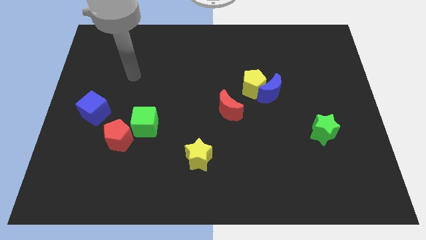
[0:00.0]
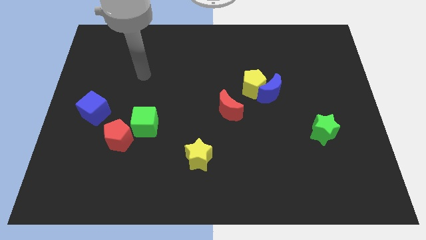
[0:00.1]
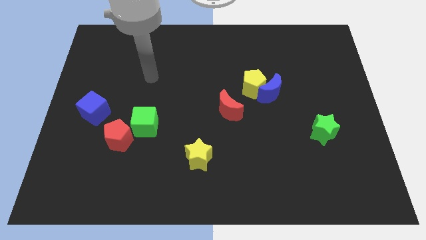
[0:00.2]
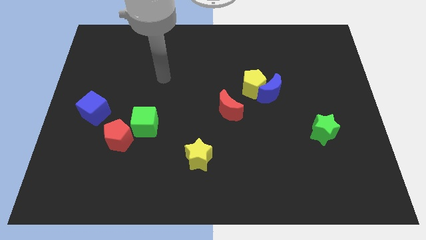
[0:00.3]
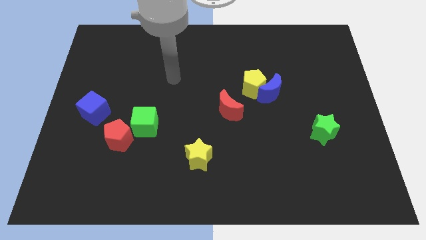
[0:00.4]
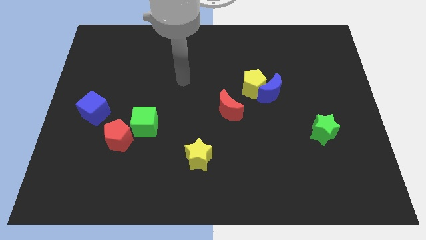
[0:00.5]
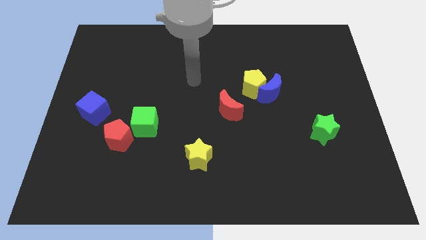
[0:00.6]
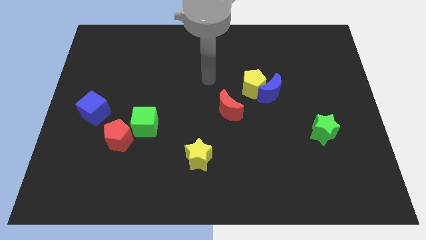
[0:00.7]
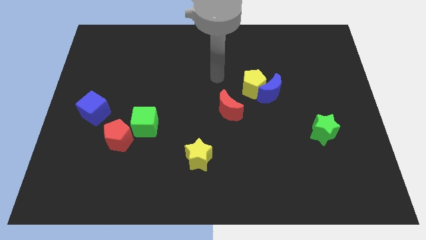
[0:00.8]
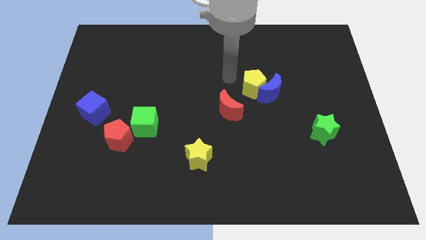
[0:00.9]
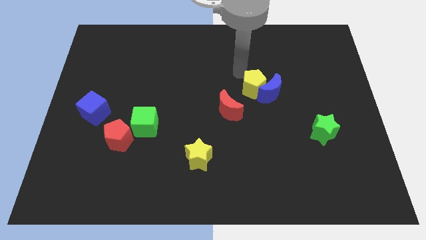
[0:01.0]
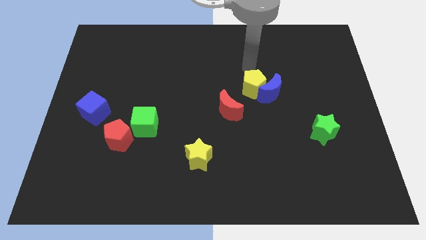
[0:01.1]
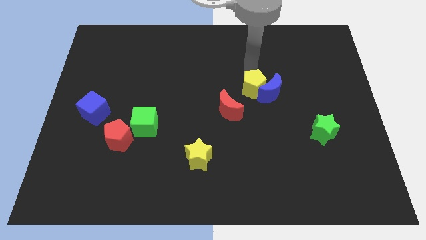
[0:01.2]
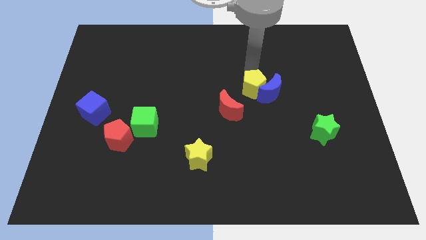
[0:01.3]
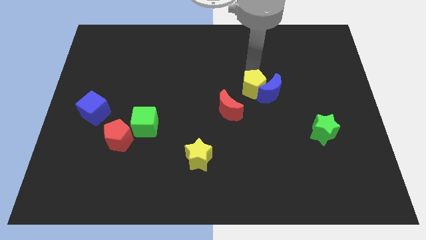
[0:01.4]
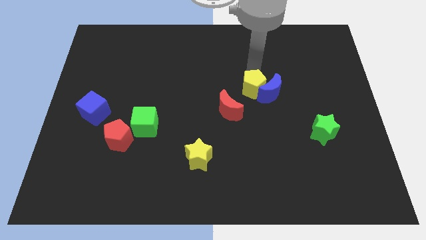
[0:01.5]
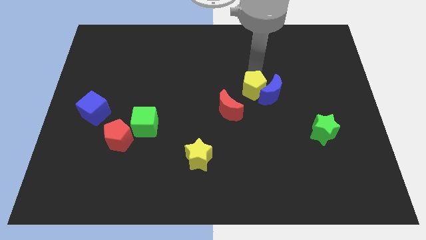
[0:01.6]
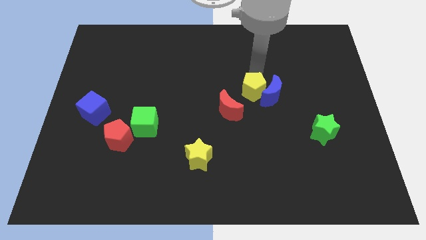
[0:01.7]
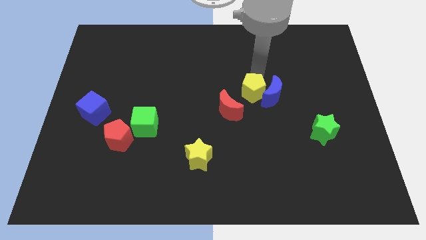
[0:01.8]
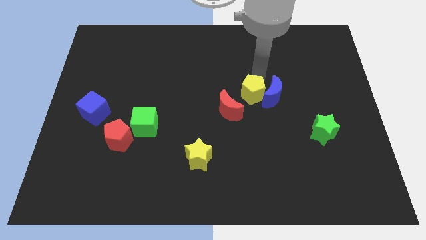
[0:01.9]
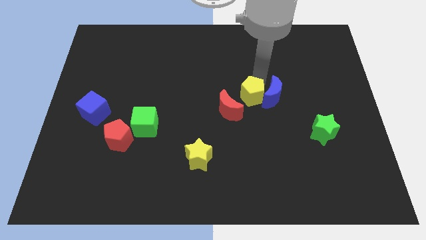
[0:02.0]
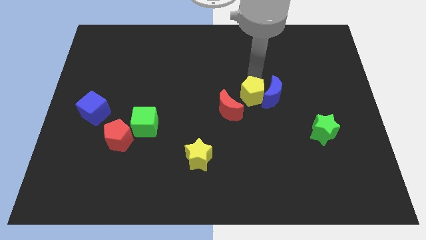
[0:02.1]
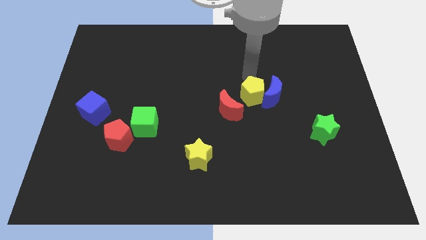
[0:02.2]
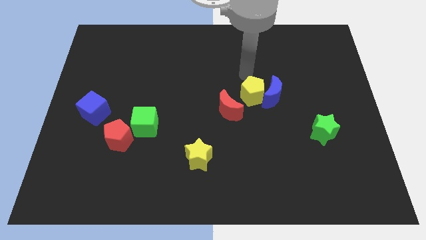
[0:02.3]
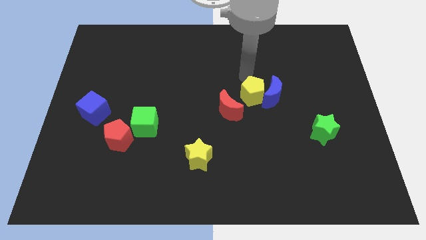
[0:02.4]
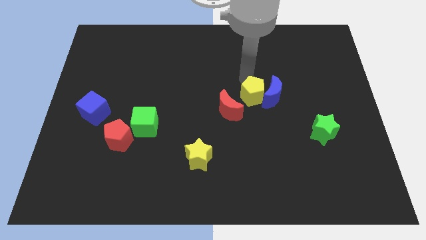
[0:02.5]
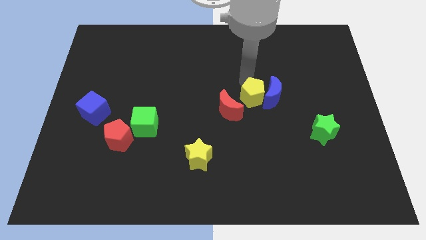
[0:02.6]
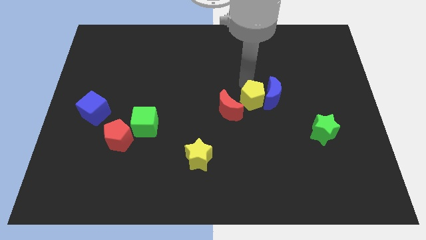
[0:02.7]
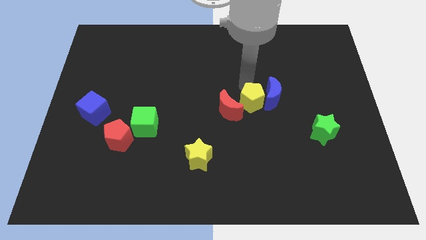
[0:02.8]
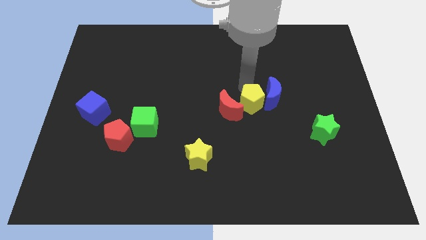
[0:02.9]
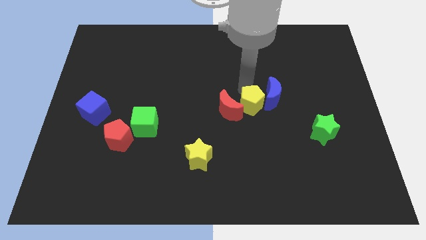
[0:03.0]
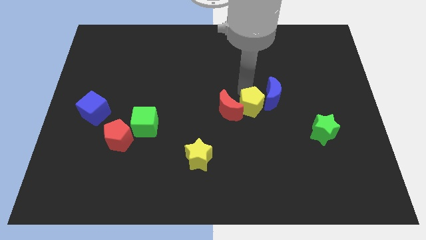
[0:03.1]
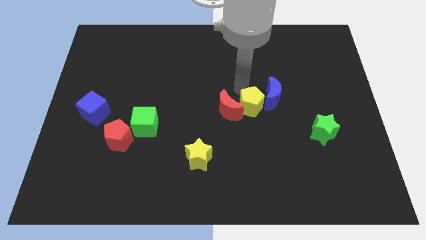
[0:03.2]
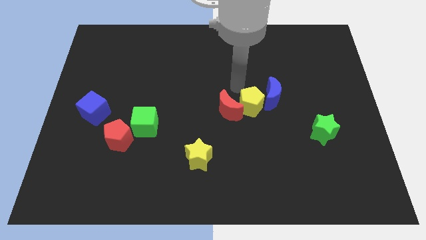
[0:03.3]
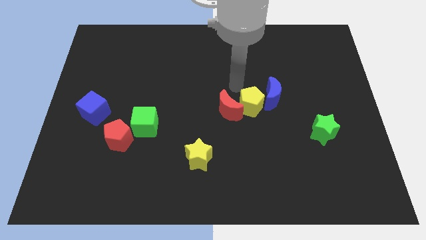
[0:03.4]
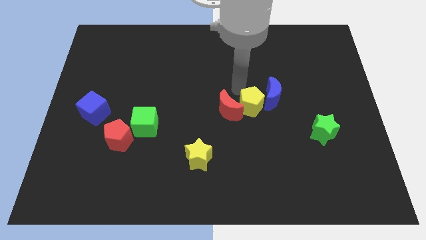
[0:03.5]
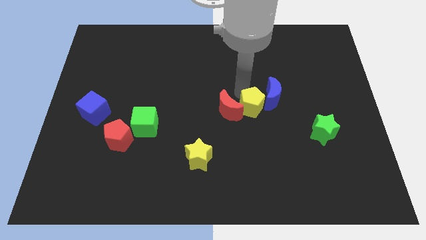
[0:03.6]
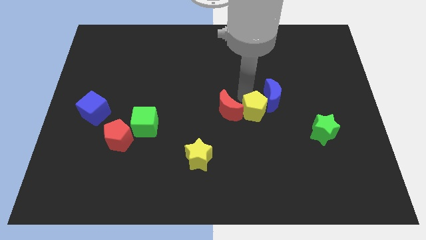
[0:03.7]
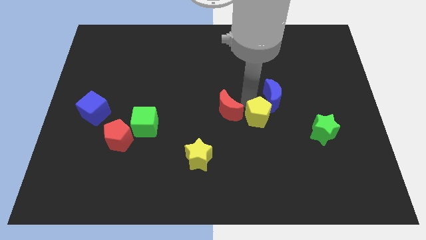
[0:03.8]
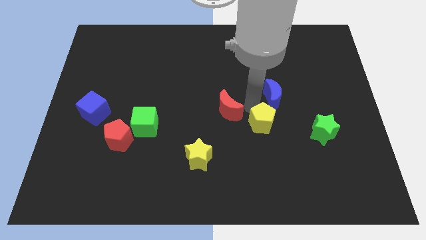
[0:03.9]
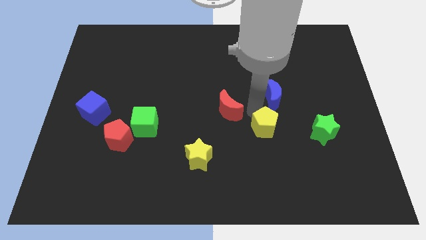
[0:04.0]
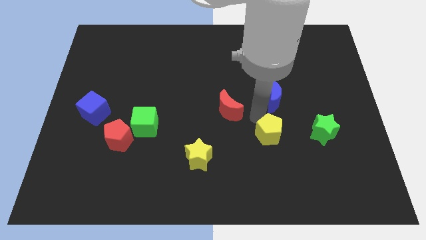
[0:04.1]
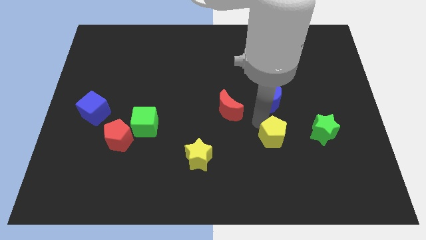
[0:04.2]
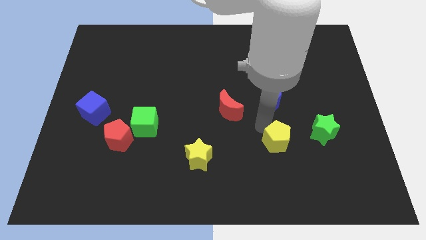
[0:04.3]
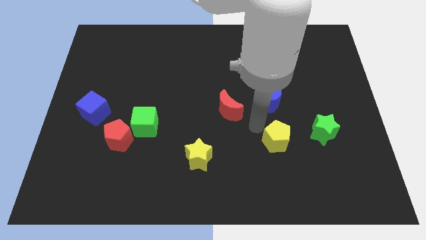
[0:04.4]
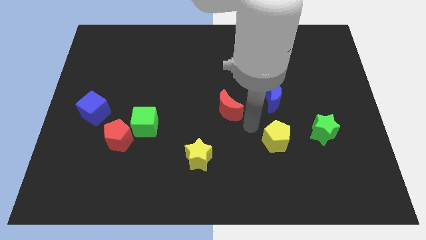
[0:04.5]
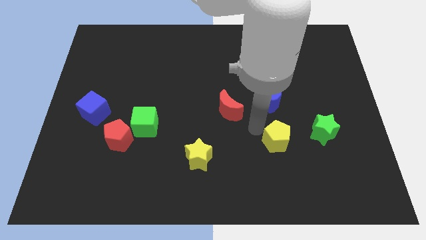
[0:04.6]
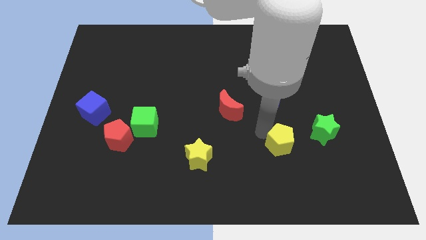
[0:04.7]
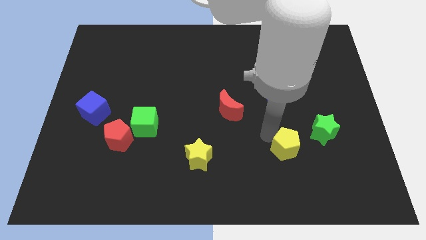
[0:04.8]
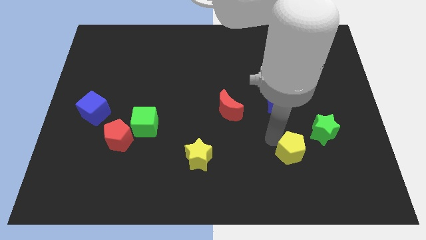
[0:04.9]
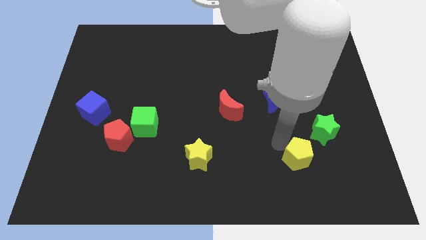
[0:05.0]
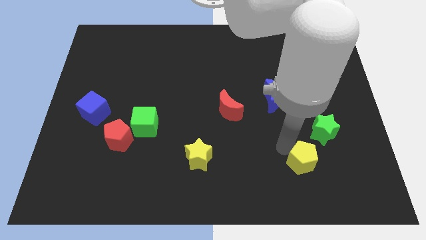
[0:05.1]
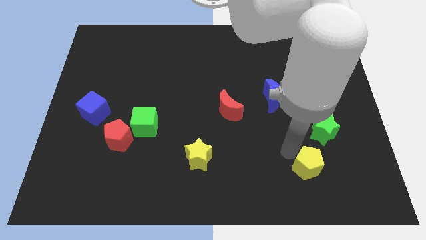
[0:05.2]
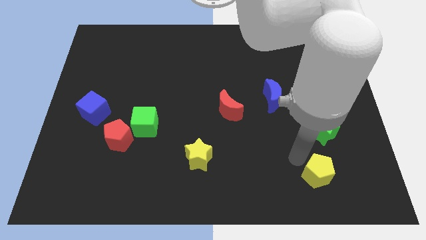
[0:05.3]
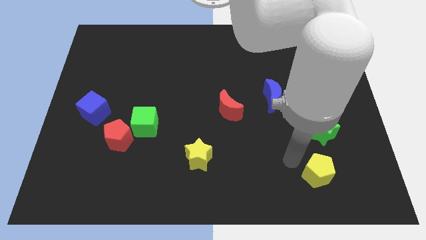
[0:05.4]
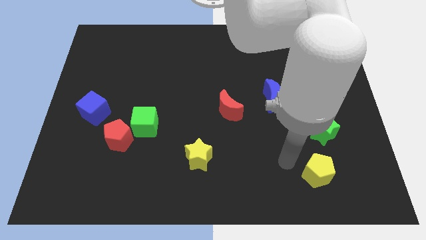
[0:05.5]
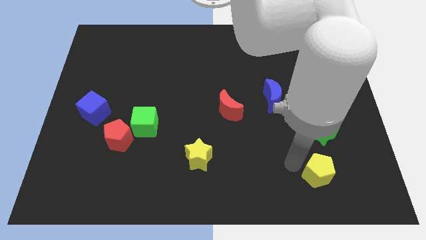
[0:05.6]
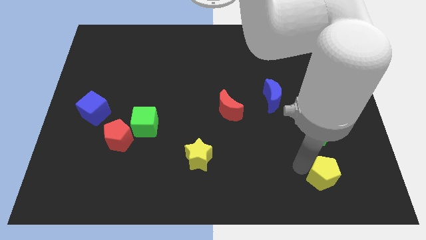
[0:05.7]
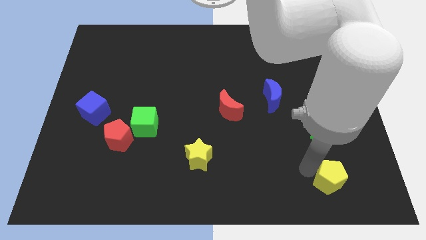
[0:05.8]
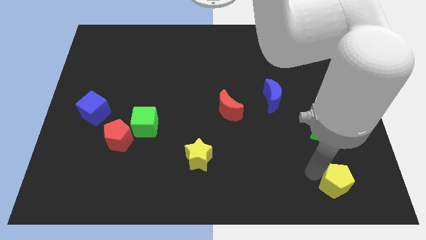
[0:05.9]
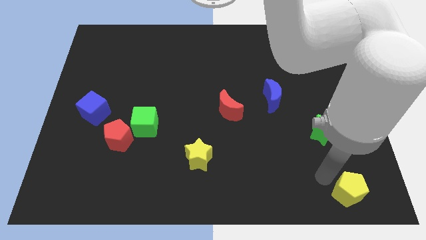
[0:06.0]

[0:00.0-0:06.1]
move the yellow pentagon to the bottom right corner

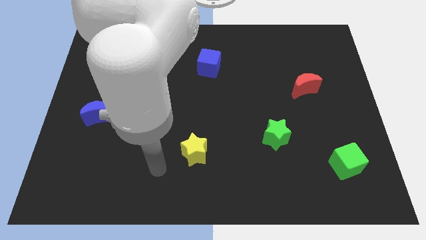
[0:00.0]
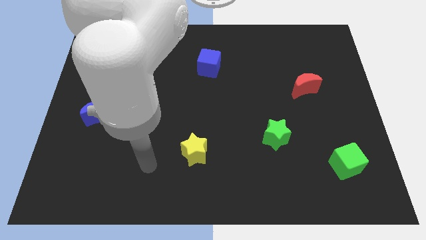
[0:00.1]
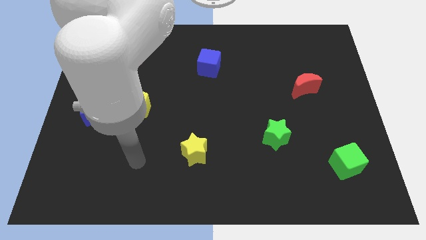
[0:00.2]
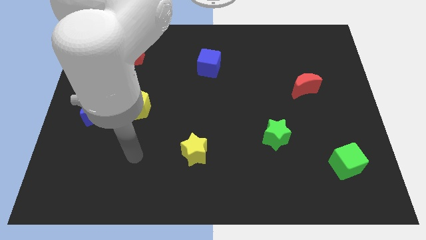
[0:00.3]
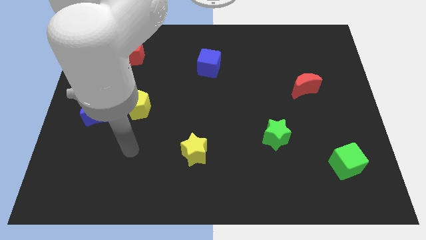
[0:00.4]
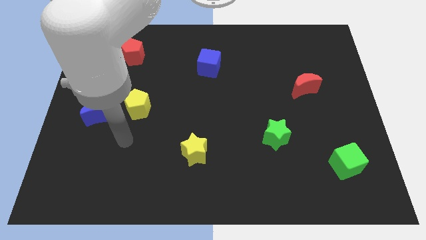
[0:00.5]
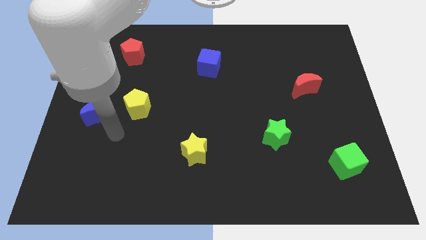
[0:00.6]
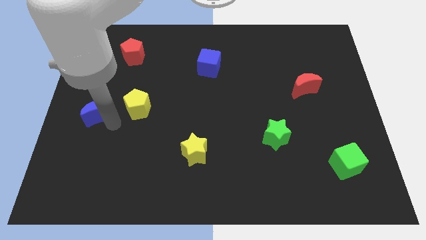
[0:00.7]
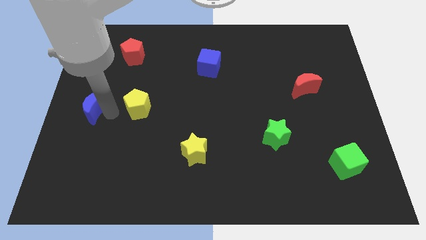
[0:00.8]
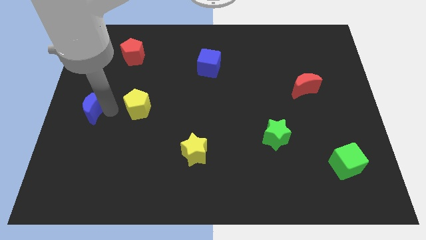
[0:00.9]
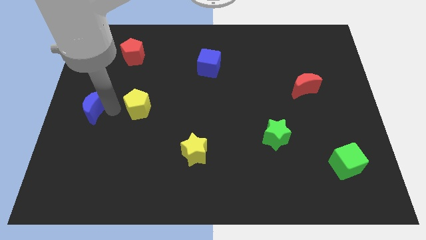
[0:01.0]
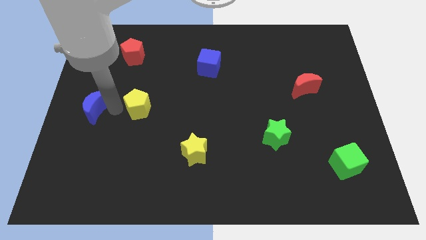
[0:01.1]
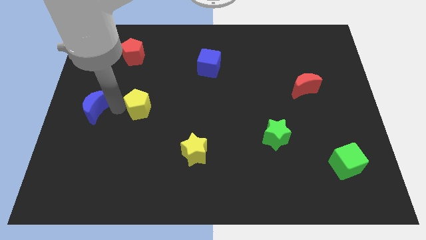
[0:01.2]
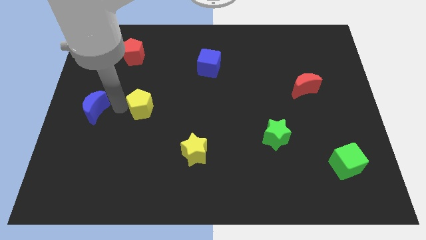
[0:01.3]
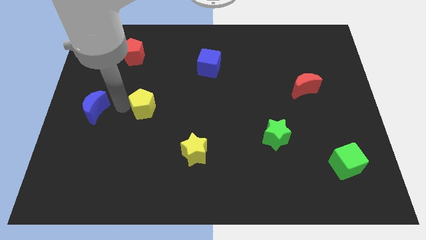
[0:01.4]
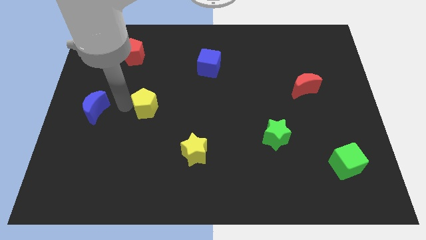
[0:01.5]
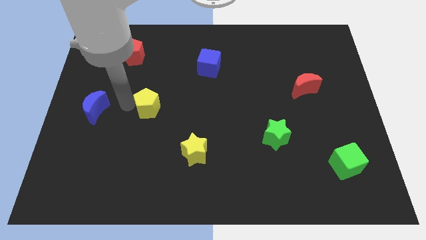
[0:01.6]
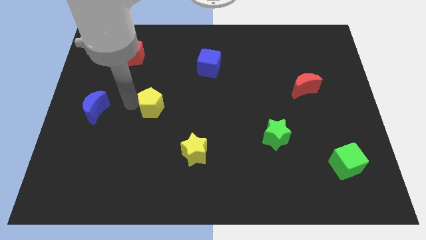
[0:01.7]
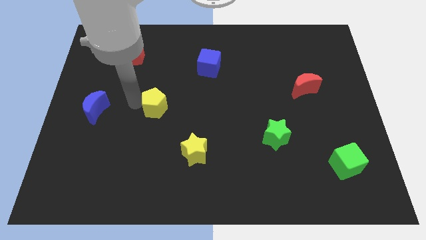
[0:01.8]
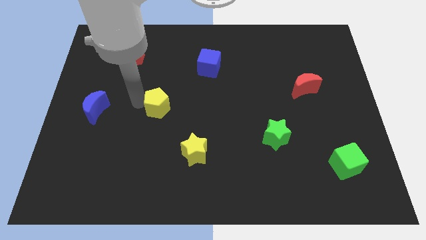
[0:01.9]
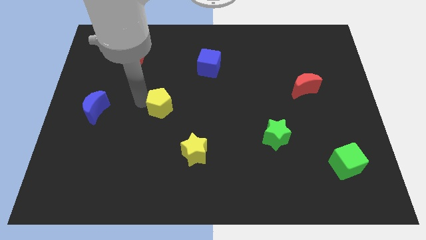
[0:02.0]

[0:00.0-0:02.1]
move the yellow pentagon to the middle of the board
